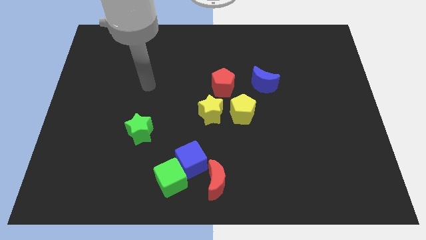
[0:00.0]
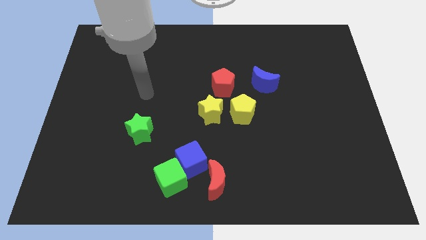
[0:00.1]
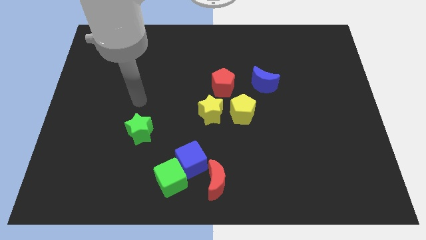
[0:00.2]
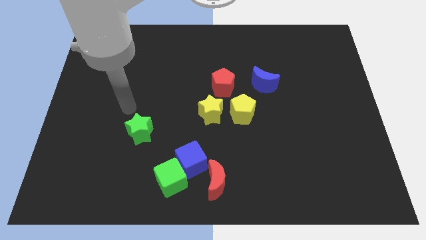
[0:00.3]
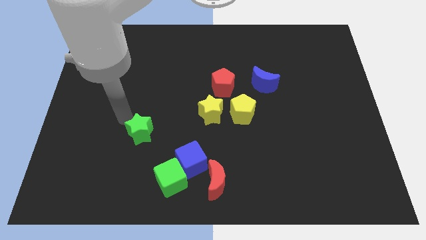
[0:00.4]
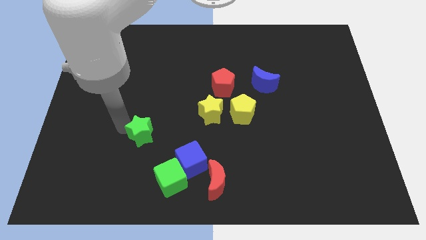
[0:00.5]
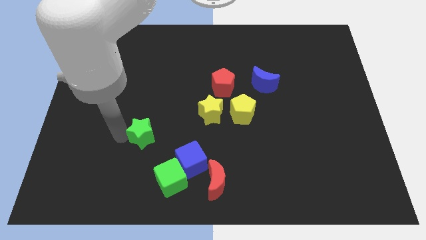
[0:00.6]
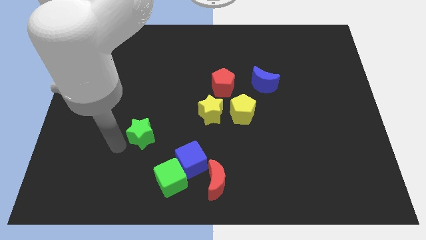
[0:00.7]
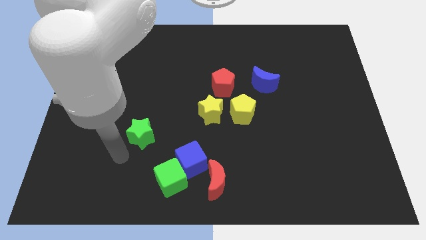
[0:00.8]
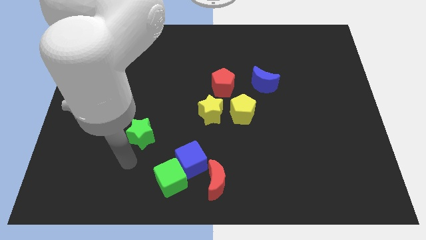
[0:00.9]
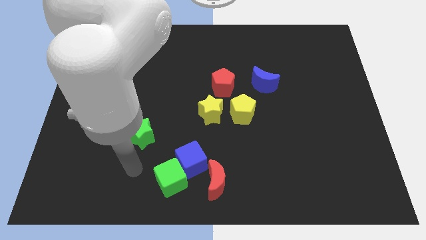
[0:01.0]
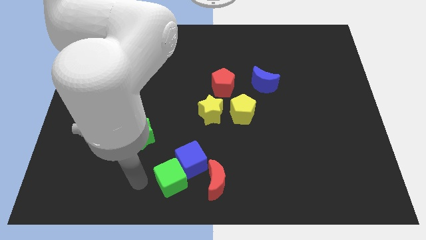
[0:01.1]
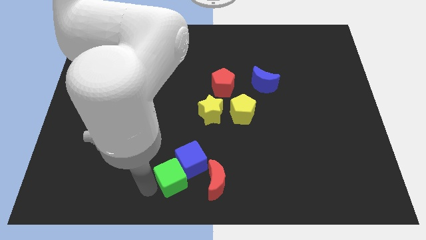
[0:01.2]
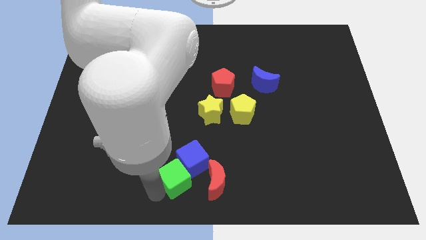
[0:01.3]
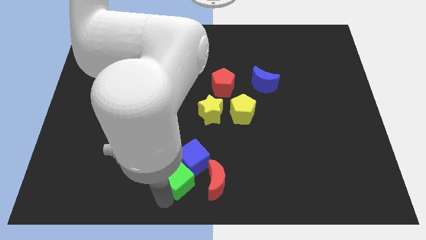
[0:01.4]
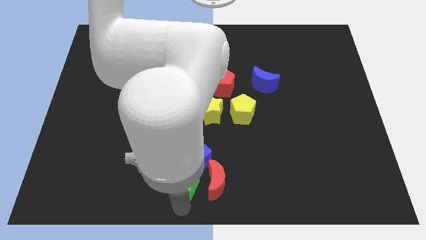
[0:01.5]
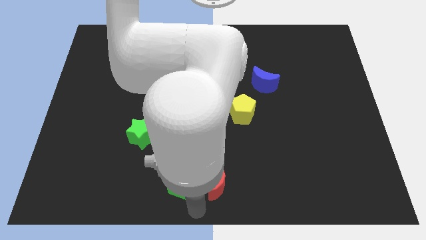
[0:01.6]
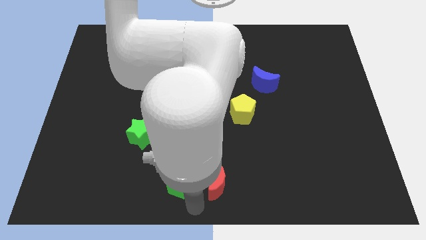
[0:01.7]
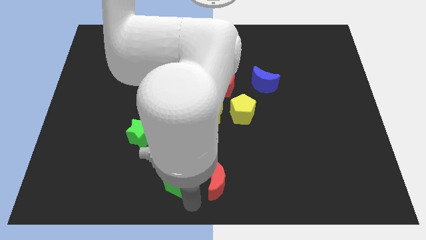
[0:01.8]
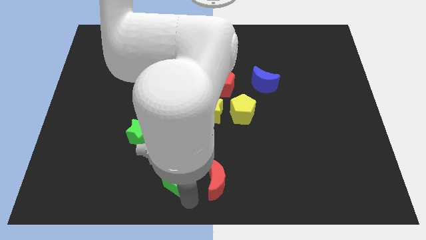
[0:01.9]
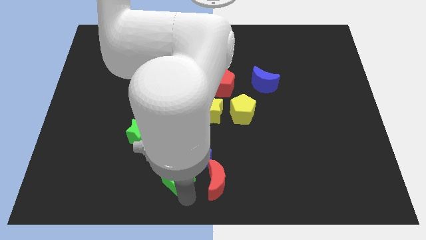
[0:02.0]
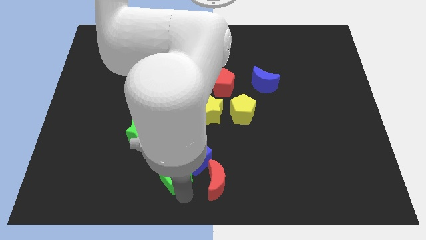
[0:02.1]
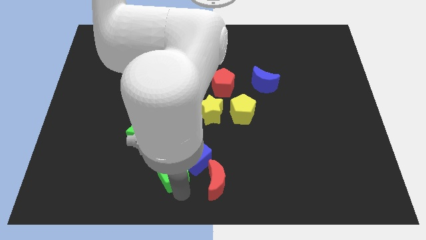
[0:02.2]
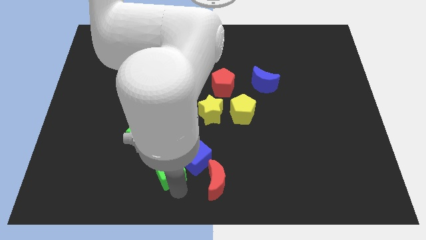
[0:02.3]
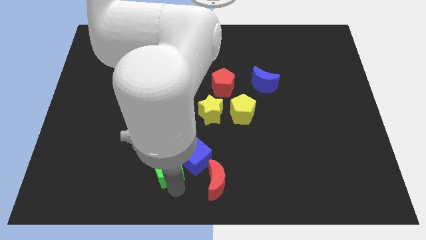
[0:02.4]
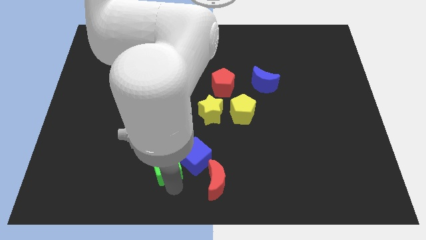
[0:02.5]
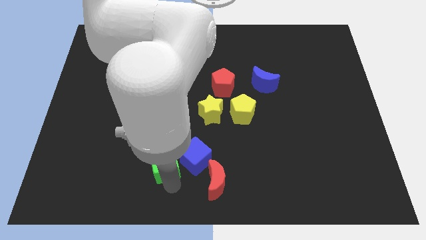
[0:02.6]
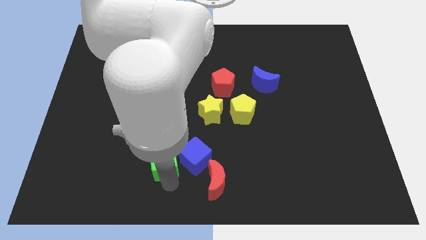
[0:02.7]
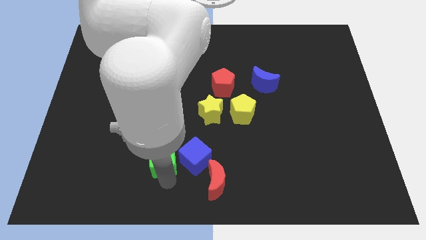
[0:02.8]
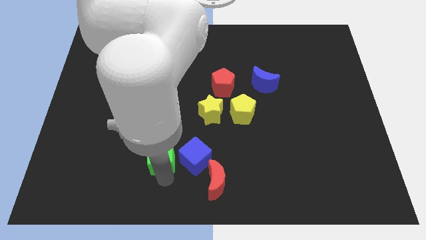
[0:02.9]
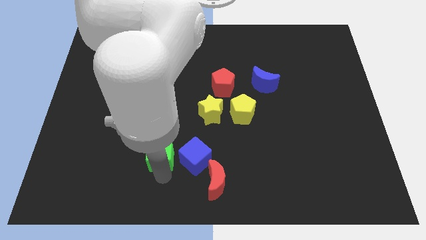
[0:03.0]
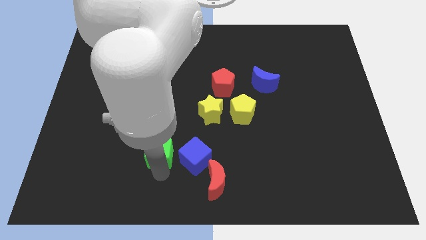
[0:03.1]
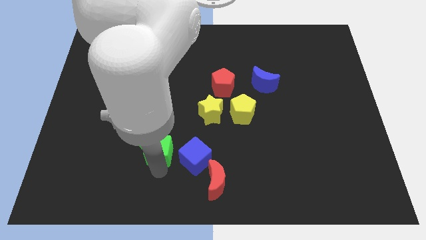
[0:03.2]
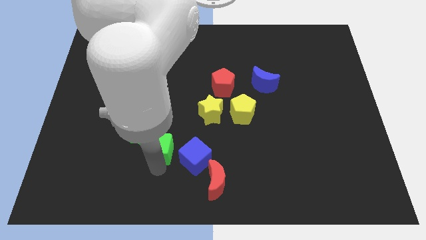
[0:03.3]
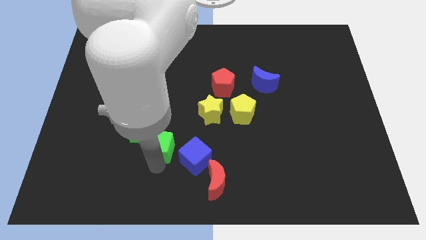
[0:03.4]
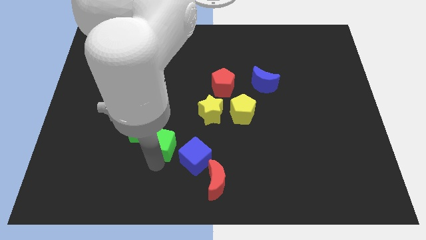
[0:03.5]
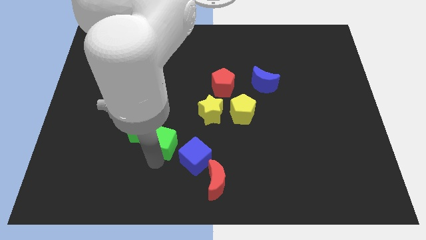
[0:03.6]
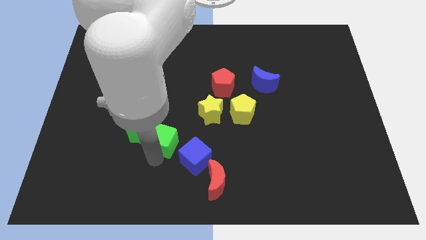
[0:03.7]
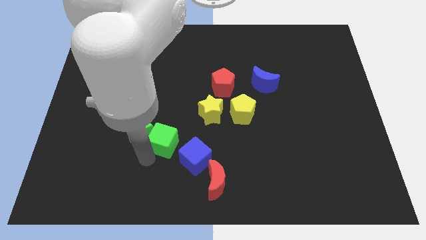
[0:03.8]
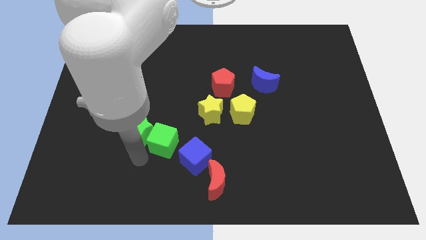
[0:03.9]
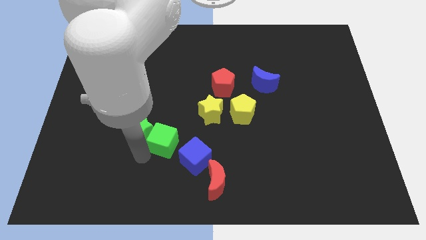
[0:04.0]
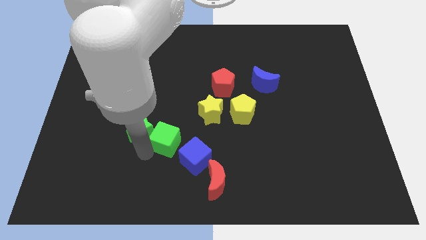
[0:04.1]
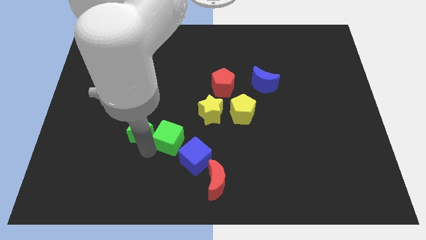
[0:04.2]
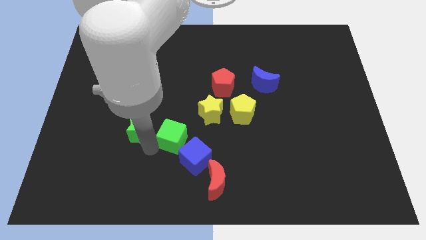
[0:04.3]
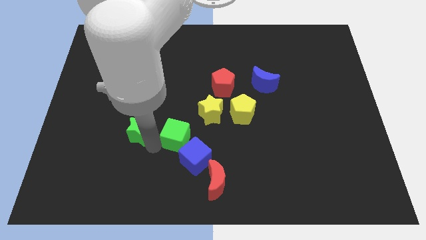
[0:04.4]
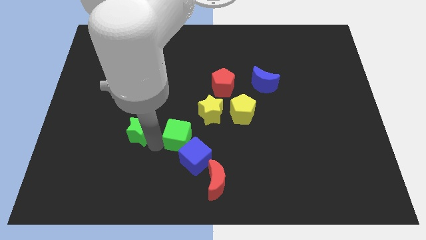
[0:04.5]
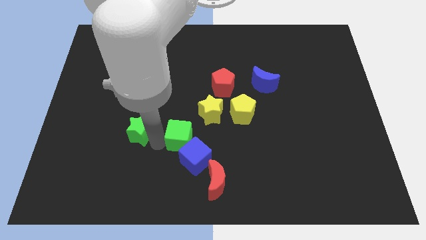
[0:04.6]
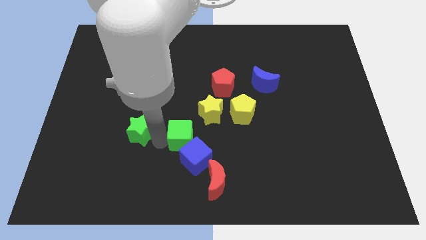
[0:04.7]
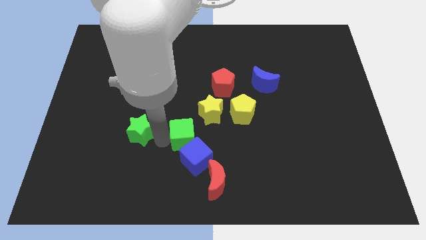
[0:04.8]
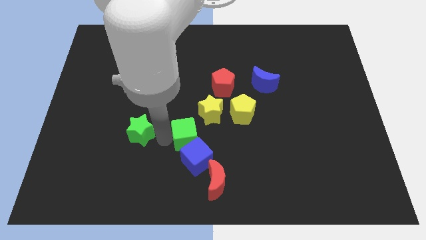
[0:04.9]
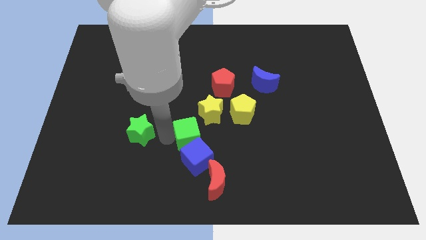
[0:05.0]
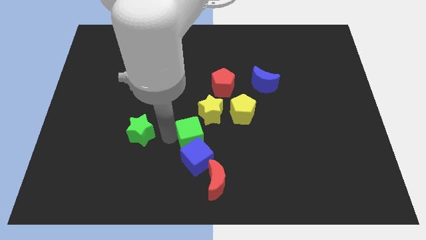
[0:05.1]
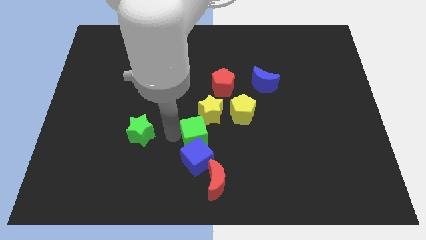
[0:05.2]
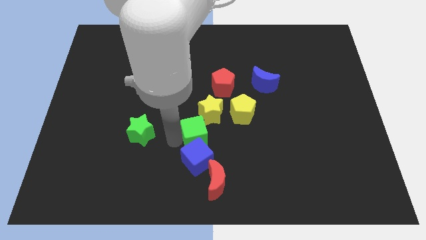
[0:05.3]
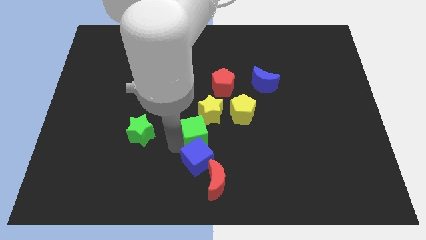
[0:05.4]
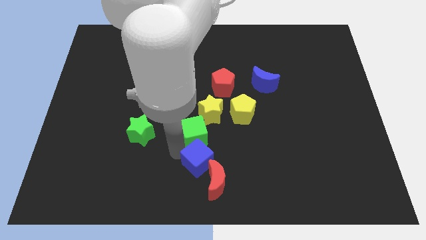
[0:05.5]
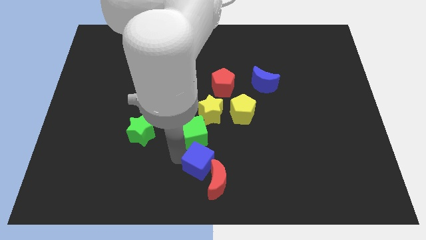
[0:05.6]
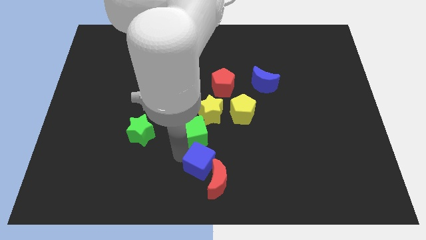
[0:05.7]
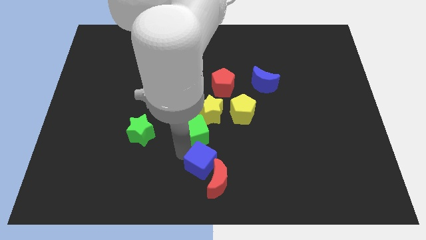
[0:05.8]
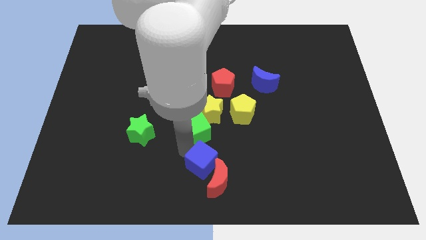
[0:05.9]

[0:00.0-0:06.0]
move the green cube to the yellow star

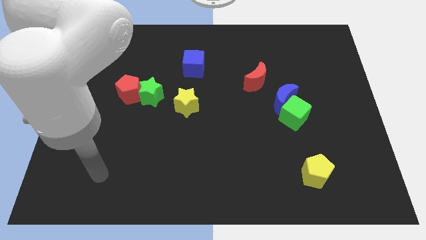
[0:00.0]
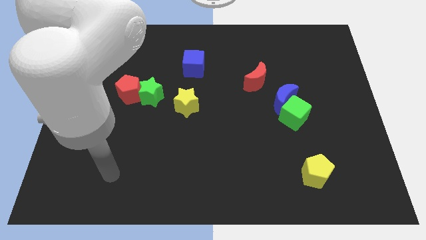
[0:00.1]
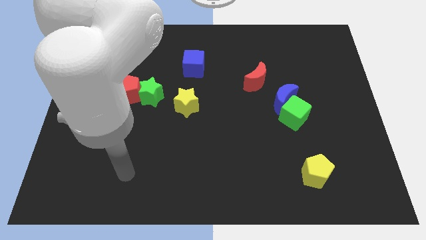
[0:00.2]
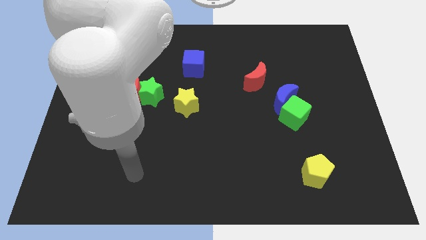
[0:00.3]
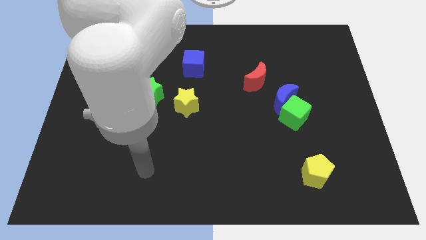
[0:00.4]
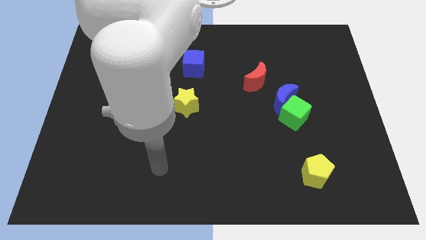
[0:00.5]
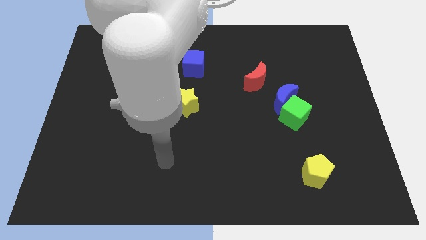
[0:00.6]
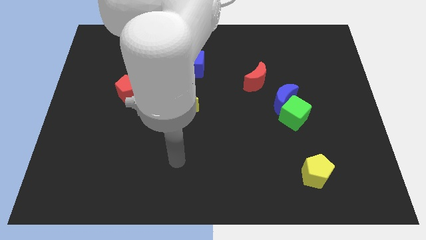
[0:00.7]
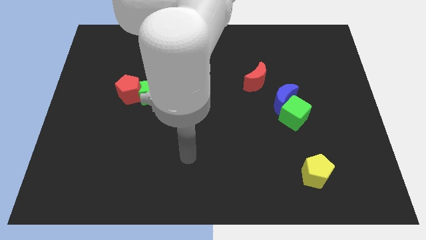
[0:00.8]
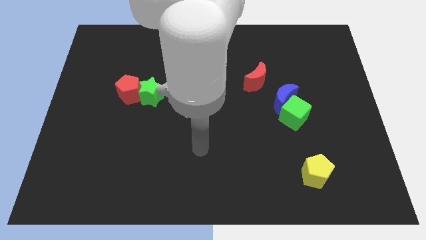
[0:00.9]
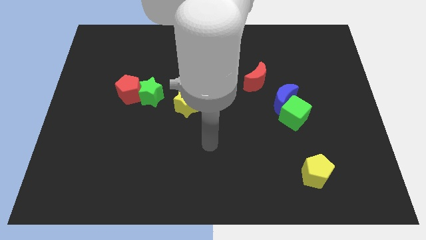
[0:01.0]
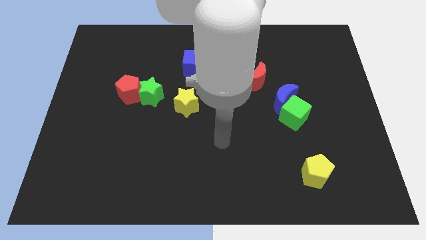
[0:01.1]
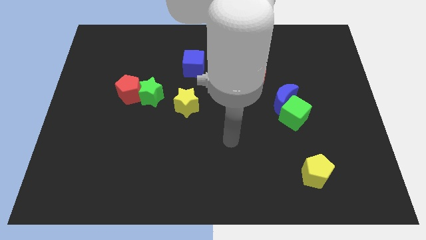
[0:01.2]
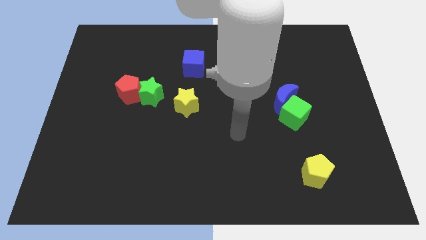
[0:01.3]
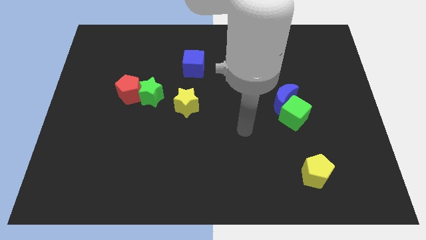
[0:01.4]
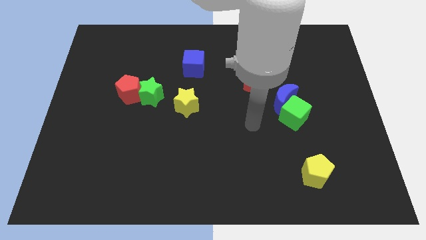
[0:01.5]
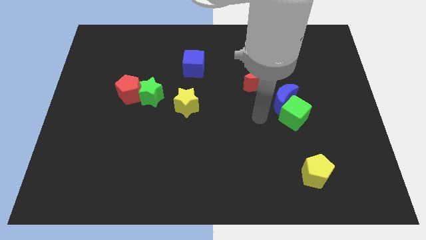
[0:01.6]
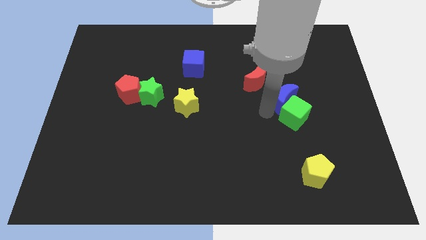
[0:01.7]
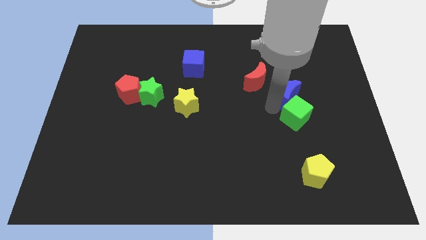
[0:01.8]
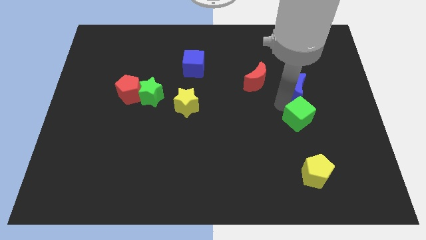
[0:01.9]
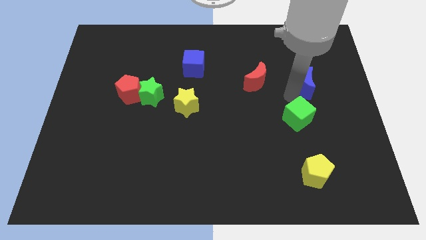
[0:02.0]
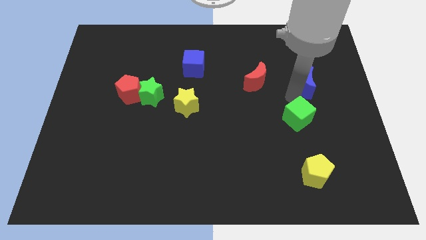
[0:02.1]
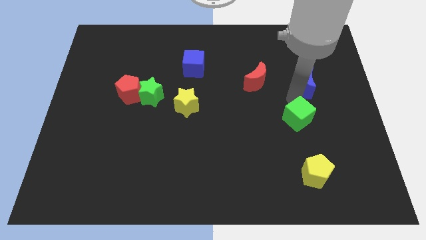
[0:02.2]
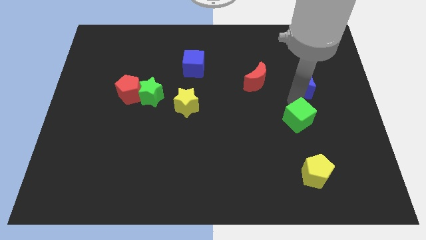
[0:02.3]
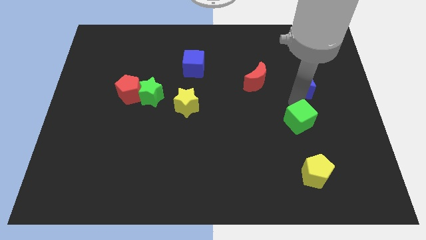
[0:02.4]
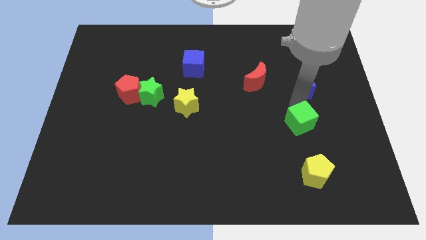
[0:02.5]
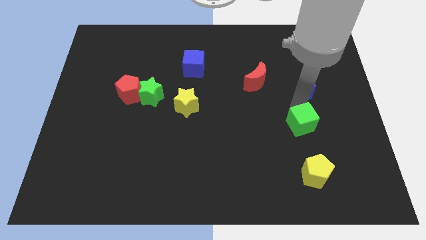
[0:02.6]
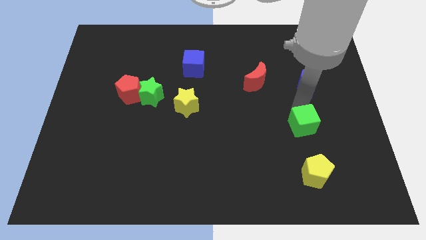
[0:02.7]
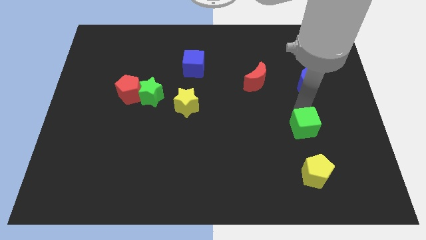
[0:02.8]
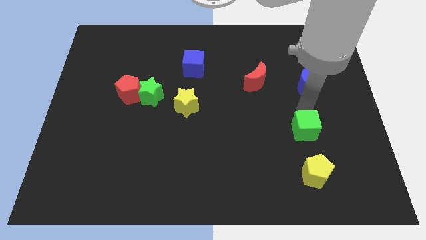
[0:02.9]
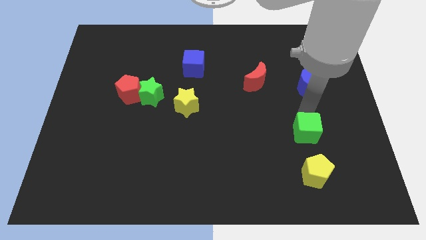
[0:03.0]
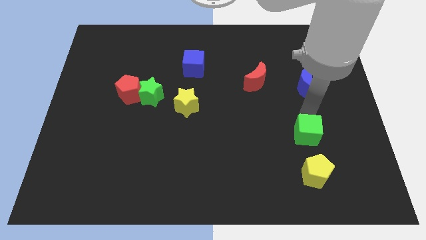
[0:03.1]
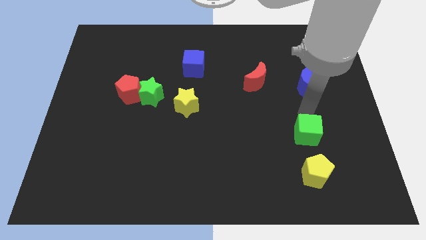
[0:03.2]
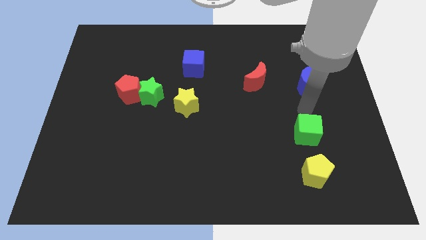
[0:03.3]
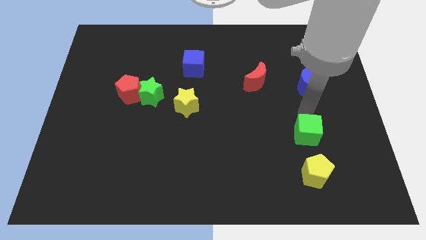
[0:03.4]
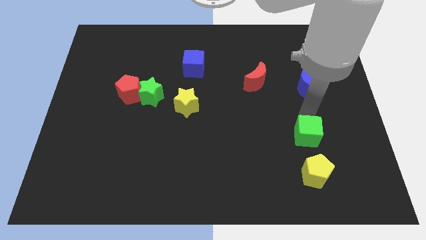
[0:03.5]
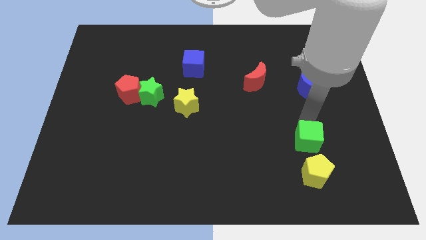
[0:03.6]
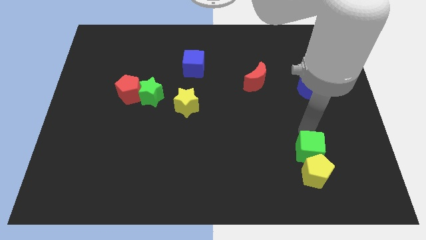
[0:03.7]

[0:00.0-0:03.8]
push the green cube towards the yellow pentagon
